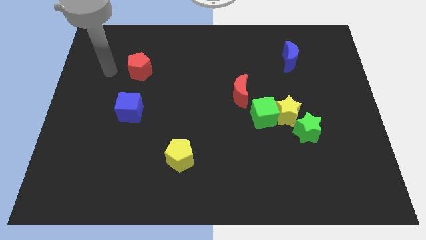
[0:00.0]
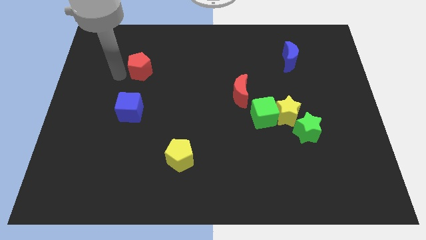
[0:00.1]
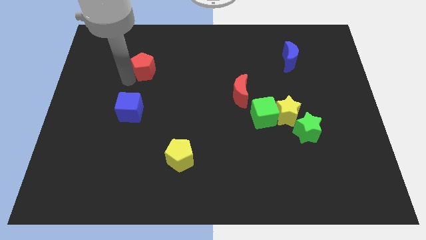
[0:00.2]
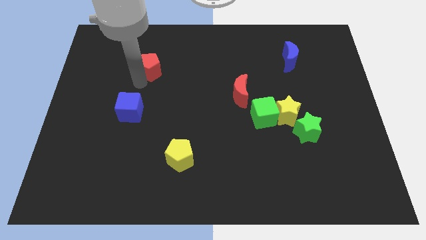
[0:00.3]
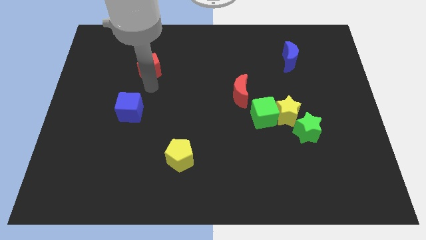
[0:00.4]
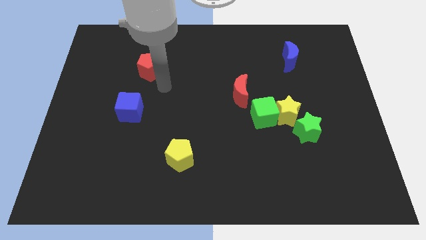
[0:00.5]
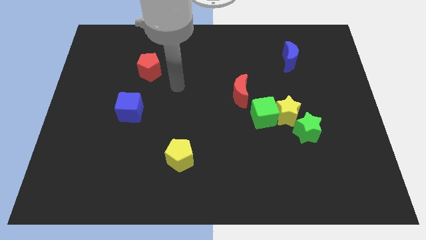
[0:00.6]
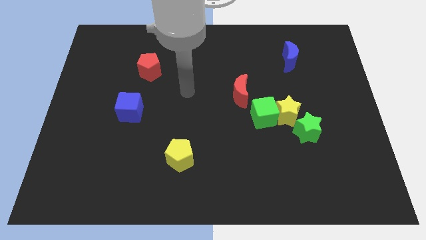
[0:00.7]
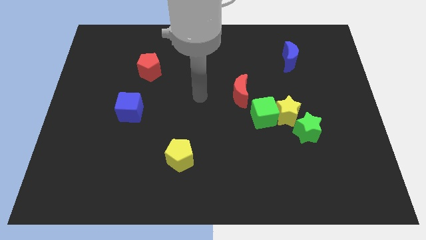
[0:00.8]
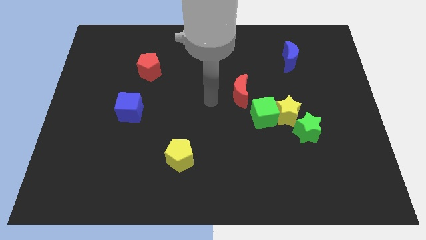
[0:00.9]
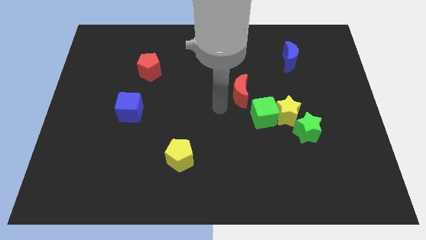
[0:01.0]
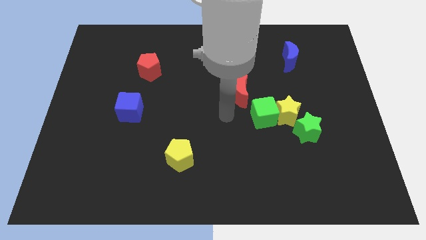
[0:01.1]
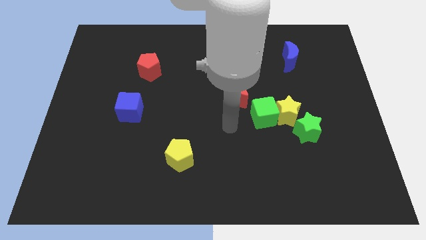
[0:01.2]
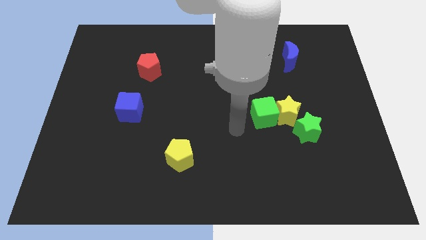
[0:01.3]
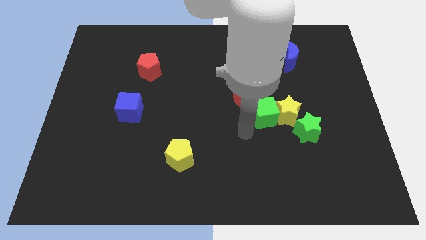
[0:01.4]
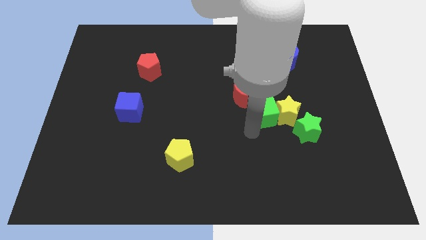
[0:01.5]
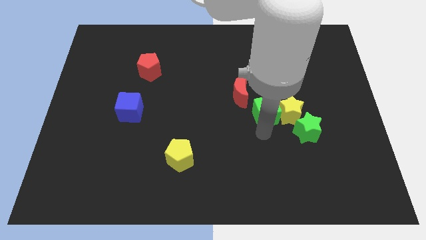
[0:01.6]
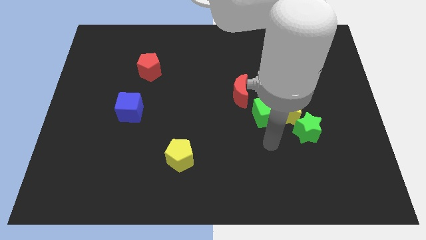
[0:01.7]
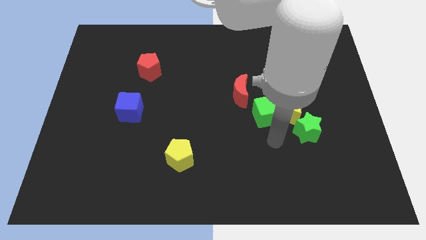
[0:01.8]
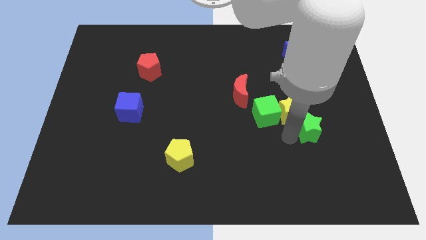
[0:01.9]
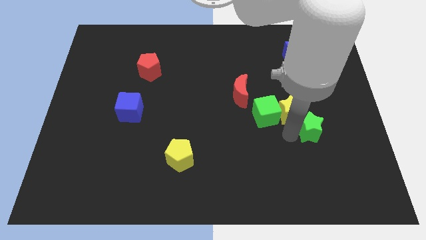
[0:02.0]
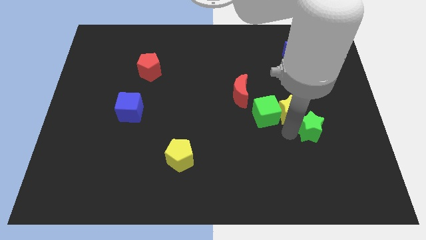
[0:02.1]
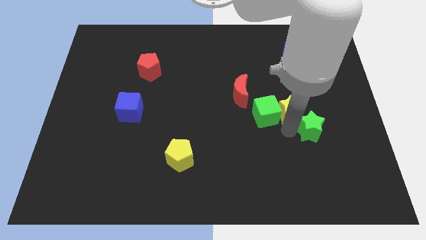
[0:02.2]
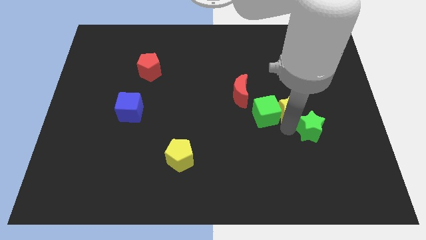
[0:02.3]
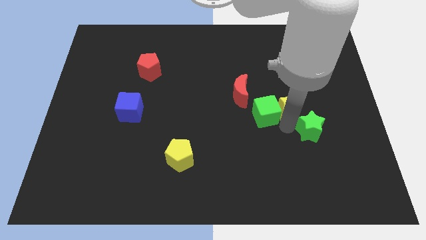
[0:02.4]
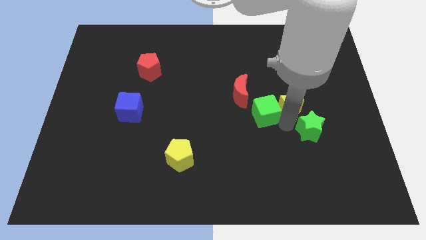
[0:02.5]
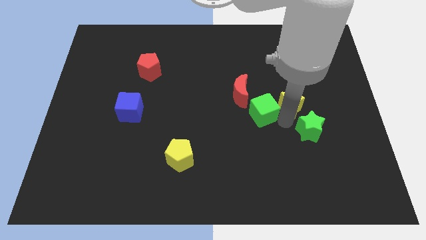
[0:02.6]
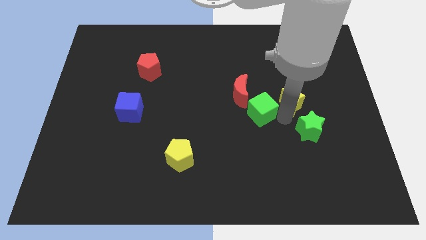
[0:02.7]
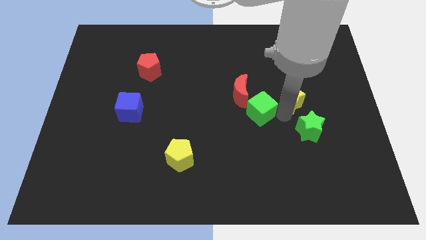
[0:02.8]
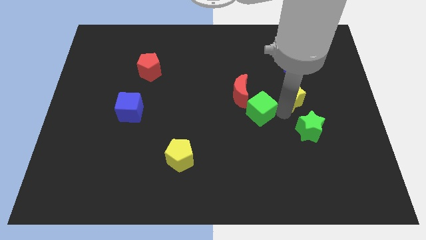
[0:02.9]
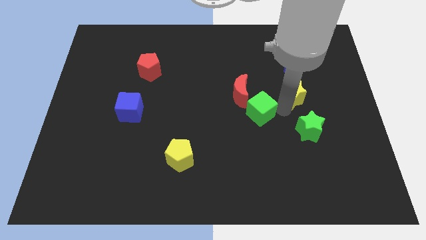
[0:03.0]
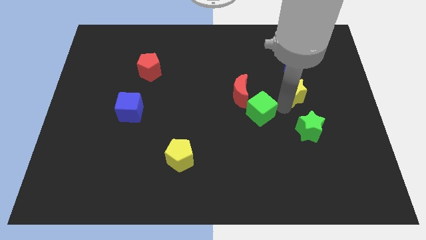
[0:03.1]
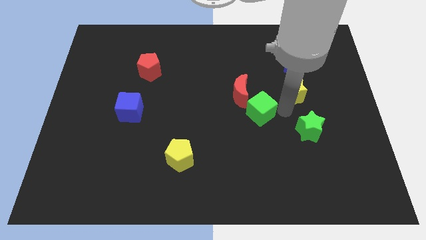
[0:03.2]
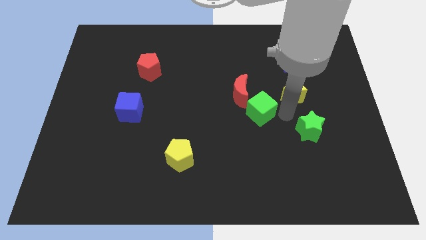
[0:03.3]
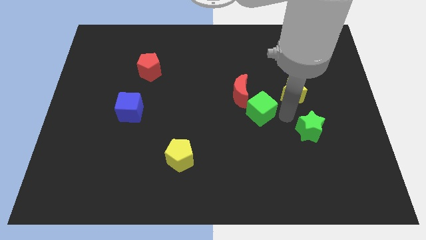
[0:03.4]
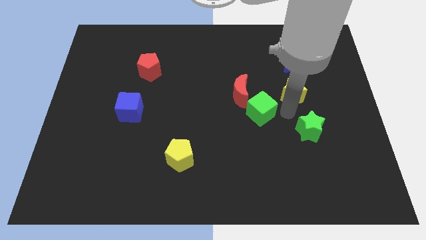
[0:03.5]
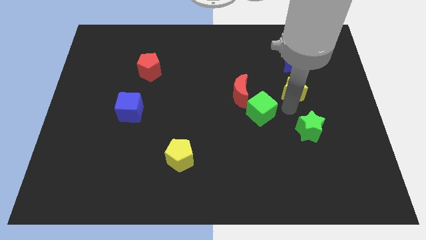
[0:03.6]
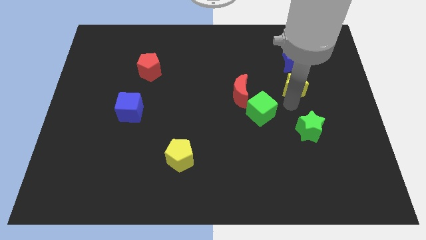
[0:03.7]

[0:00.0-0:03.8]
pull the yellow star apart from the green cube and green star

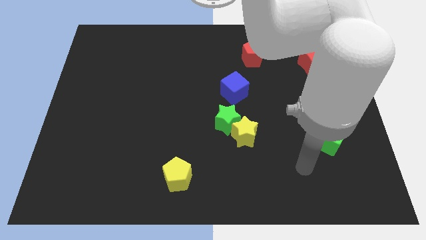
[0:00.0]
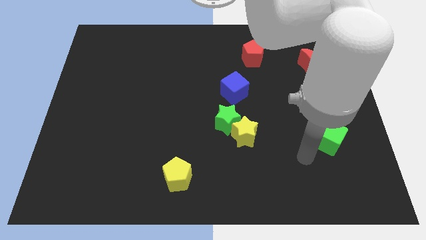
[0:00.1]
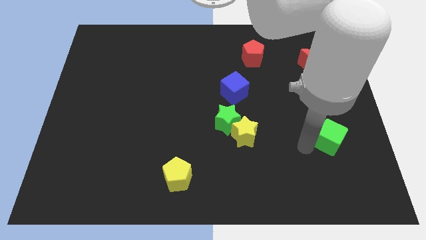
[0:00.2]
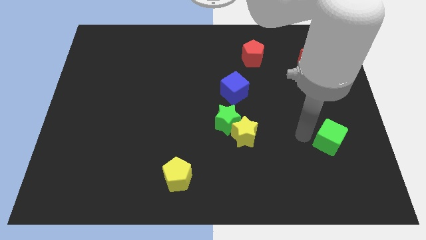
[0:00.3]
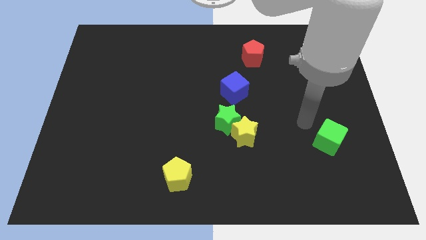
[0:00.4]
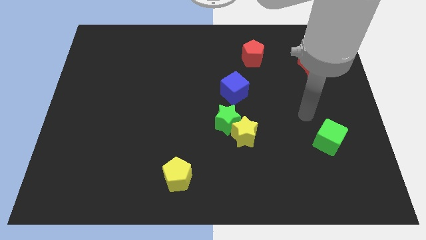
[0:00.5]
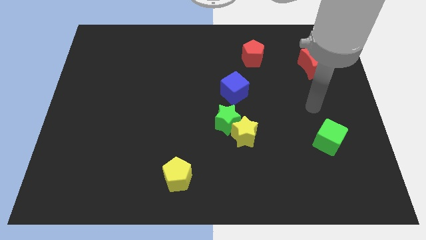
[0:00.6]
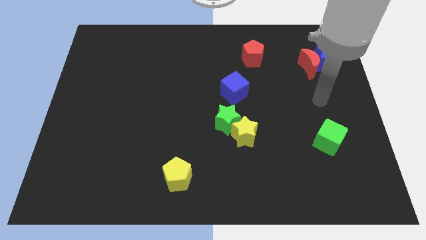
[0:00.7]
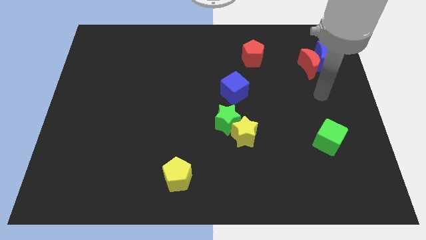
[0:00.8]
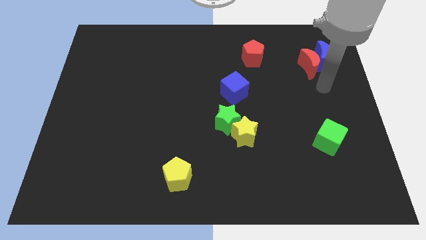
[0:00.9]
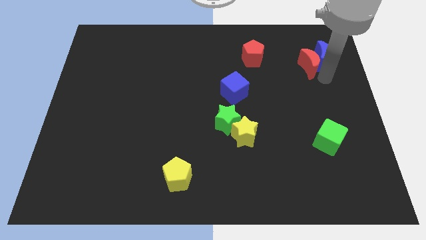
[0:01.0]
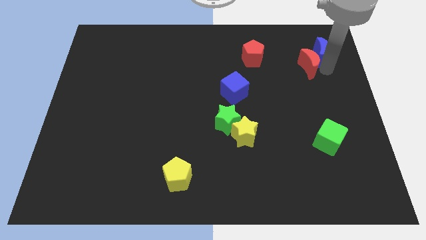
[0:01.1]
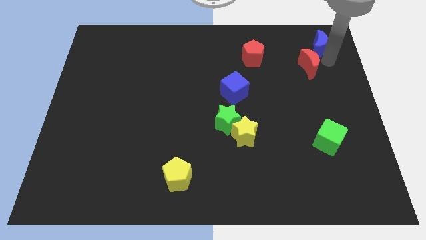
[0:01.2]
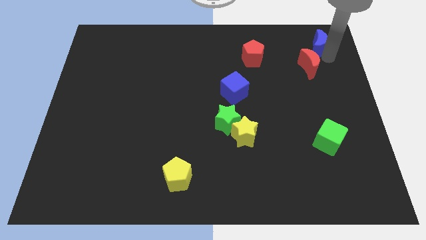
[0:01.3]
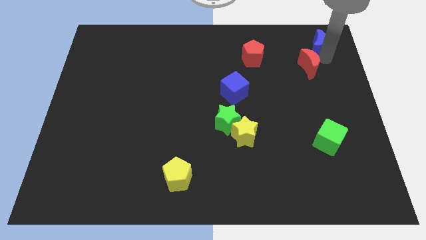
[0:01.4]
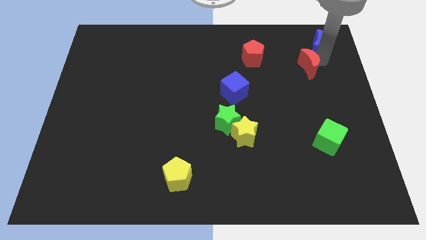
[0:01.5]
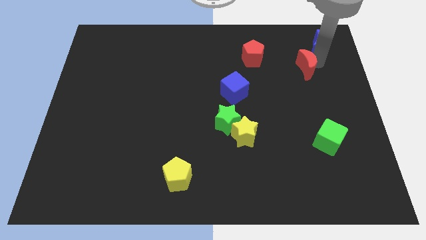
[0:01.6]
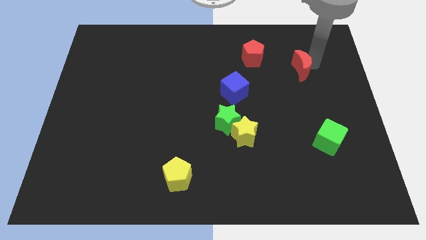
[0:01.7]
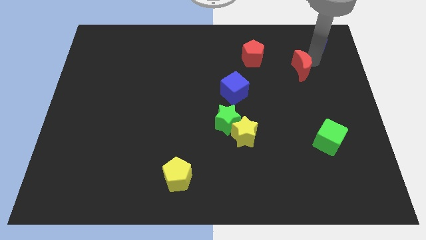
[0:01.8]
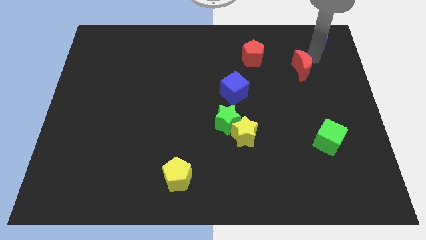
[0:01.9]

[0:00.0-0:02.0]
pull the red moon apart from the blue moon

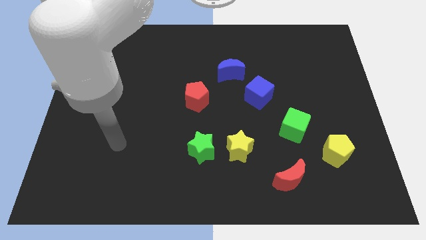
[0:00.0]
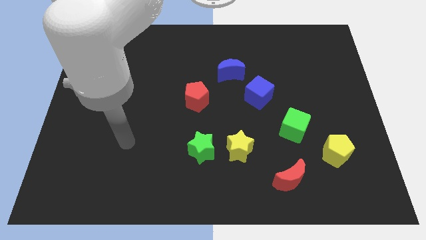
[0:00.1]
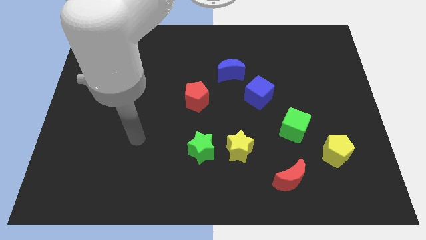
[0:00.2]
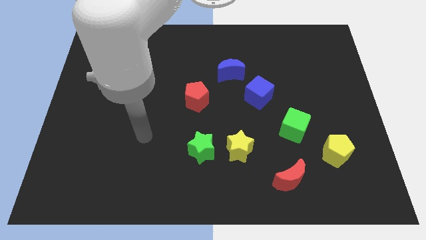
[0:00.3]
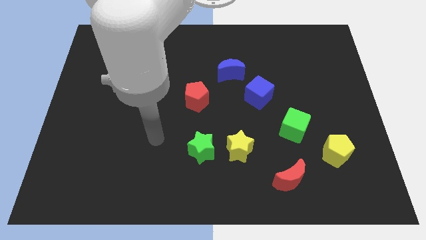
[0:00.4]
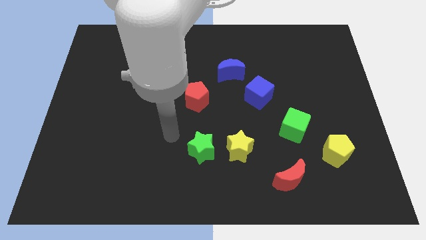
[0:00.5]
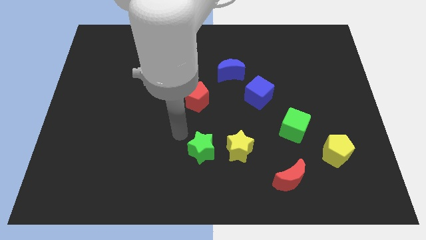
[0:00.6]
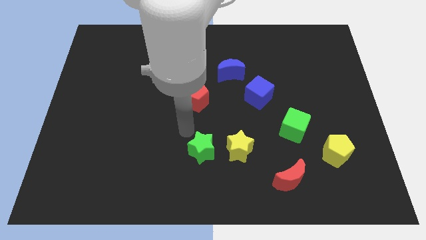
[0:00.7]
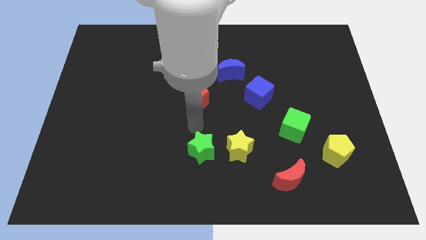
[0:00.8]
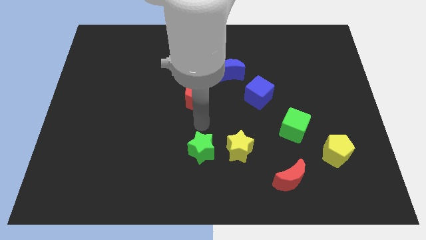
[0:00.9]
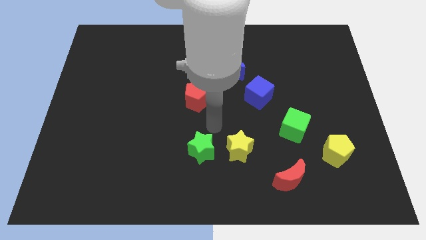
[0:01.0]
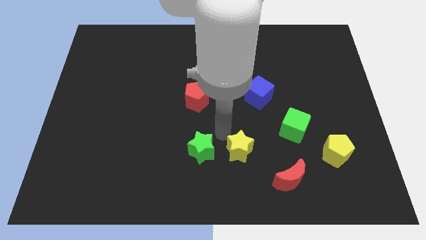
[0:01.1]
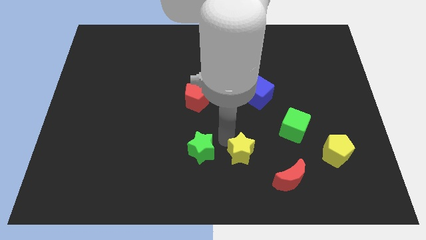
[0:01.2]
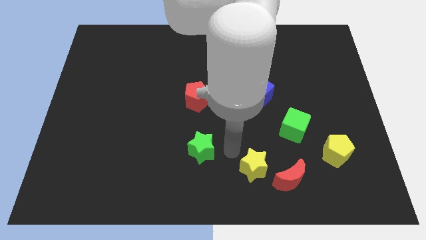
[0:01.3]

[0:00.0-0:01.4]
pull the green star apart from the yellow star

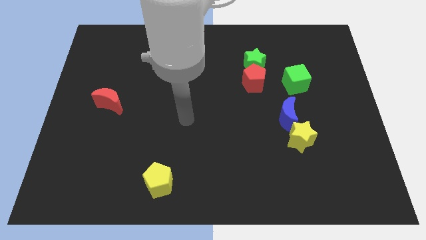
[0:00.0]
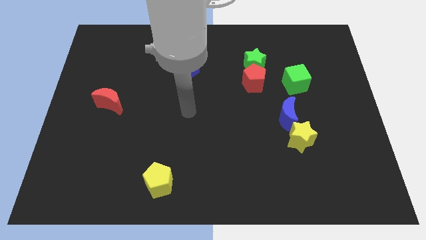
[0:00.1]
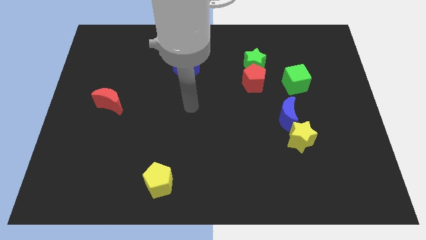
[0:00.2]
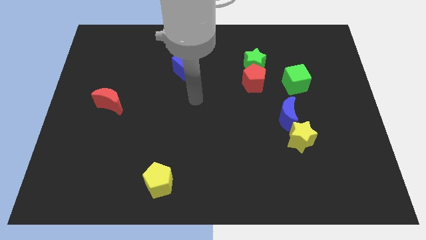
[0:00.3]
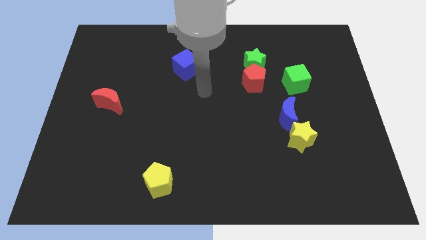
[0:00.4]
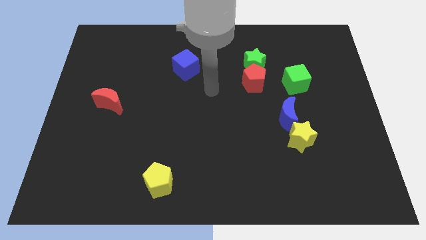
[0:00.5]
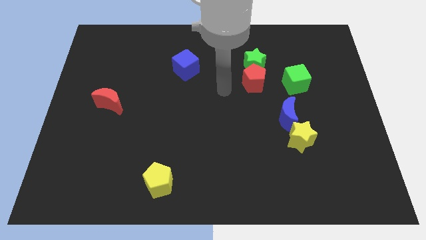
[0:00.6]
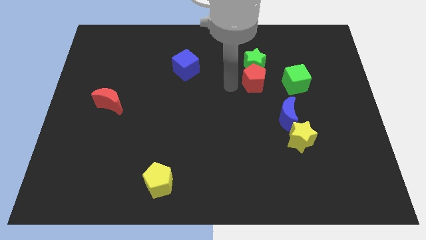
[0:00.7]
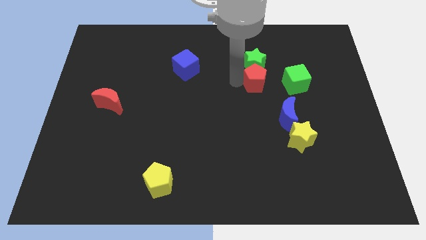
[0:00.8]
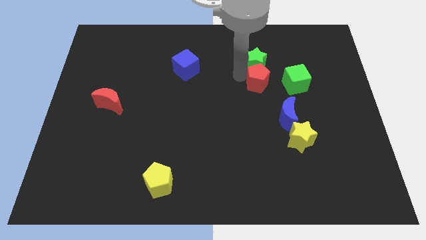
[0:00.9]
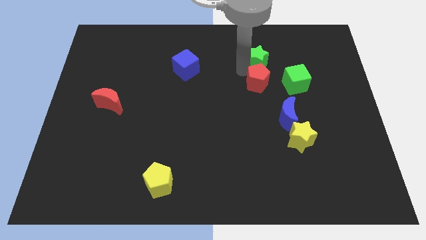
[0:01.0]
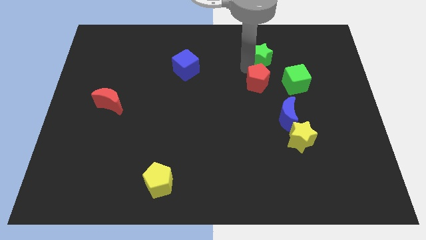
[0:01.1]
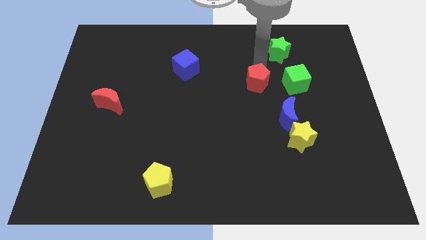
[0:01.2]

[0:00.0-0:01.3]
pull the red pentagon apart from the green star

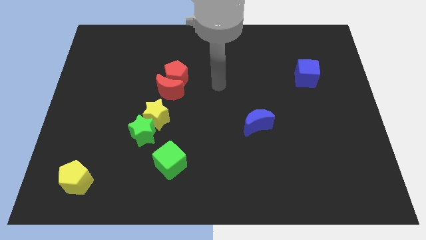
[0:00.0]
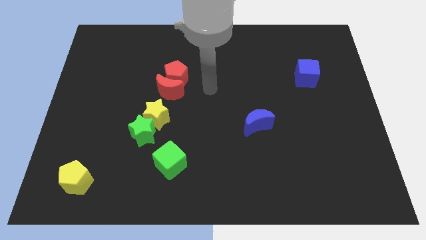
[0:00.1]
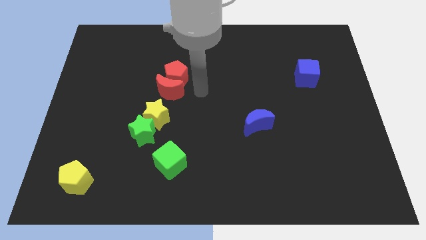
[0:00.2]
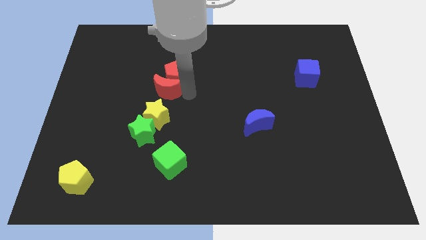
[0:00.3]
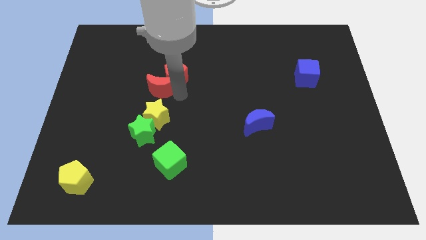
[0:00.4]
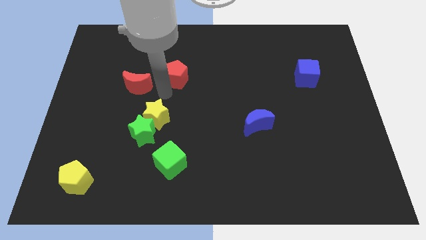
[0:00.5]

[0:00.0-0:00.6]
move the red pentagon away from the red moon

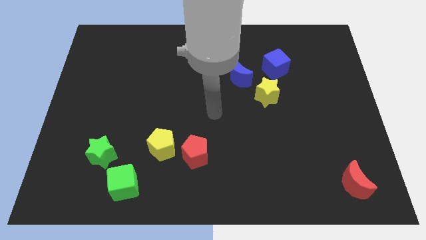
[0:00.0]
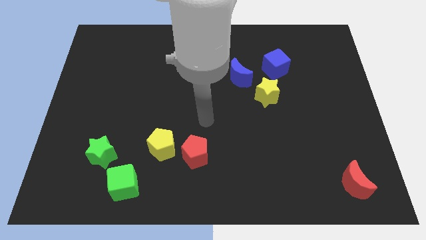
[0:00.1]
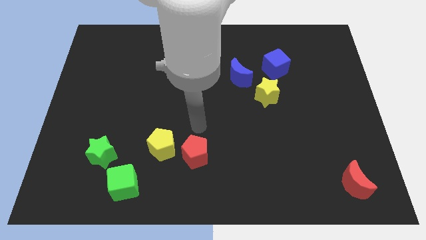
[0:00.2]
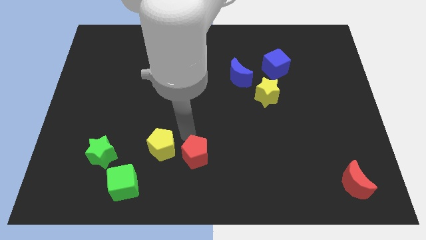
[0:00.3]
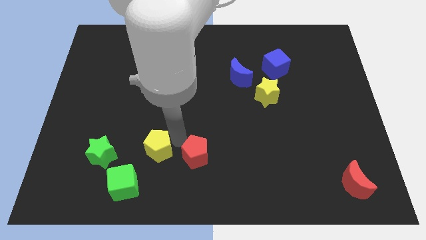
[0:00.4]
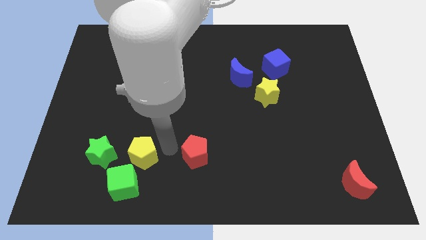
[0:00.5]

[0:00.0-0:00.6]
pull the red pentagon apart from the yellow pentagon
